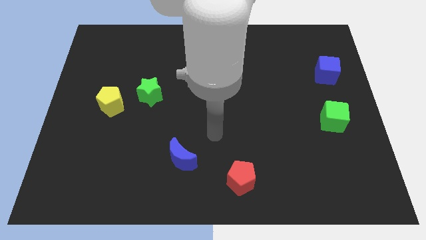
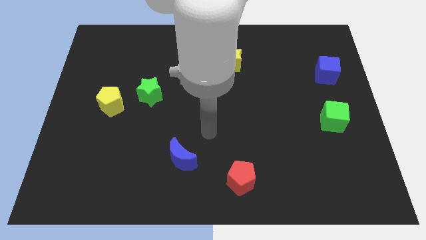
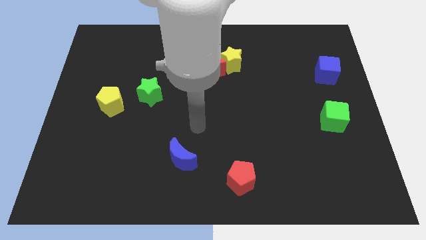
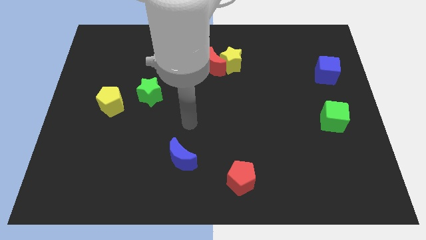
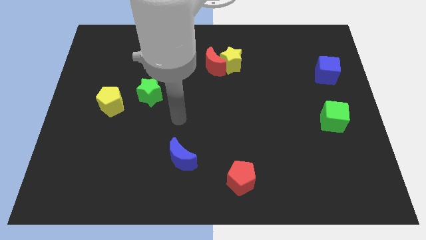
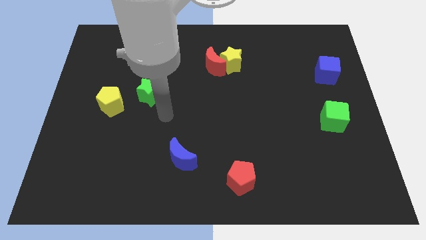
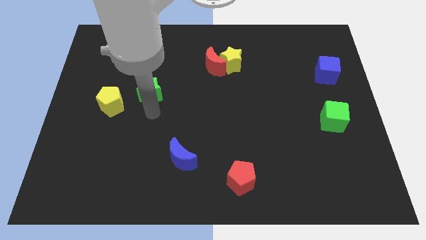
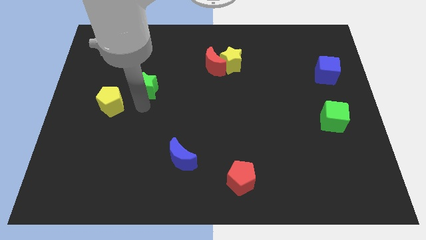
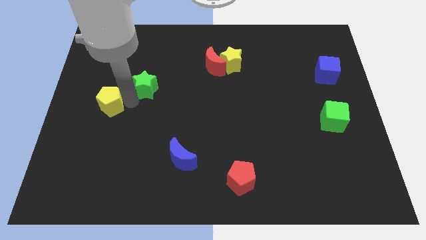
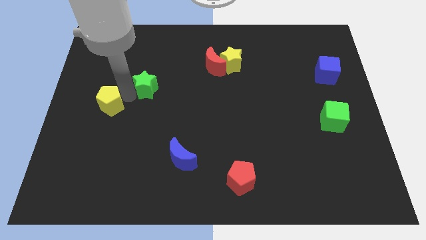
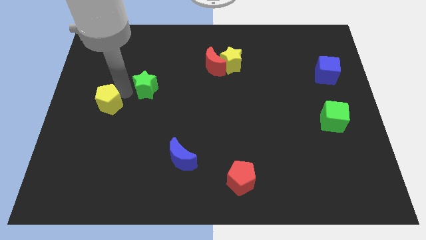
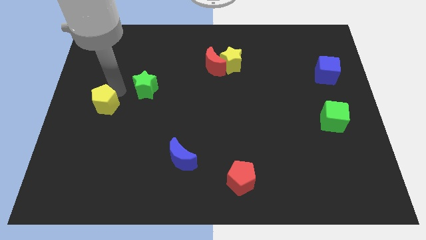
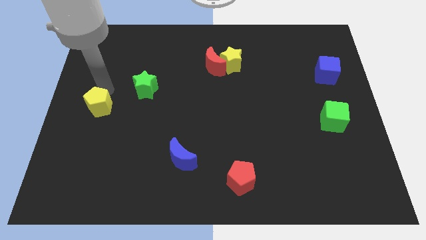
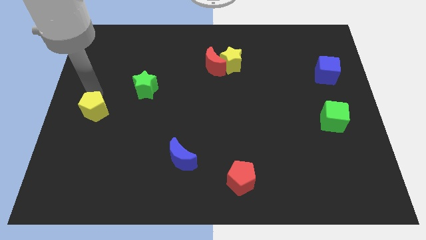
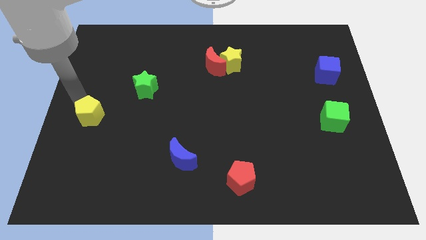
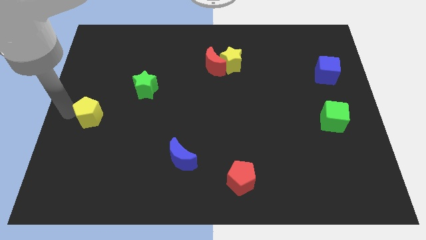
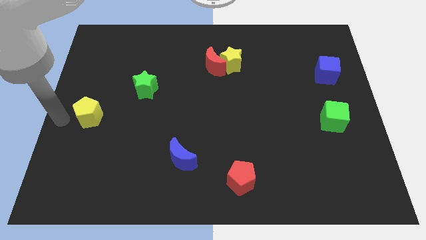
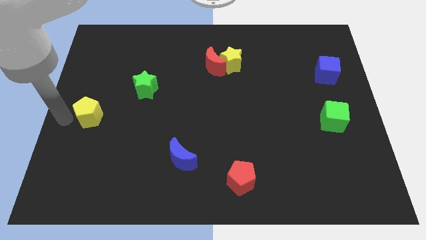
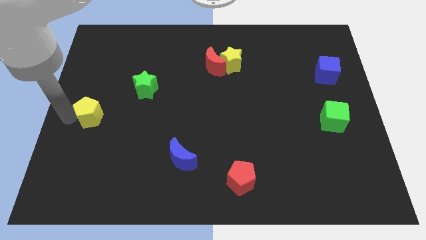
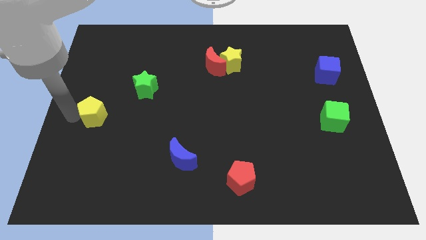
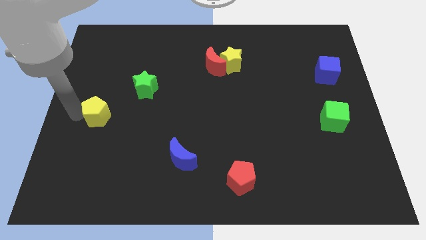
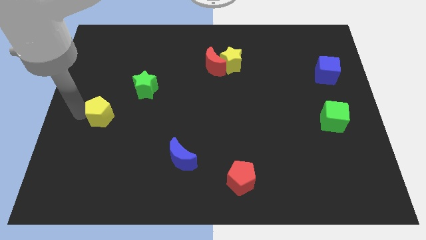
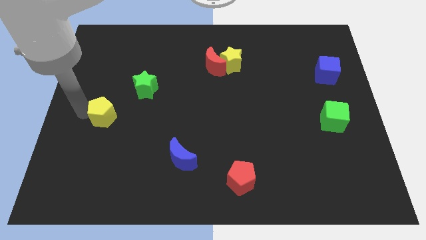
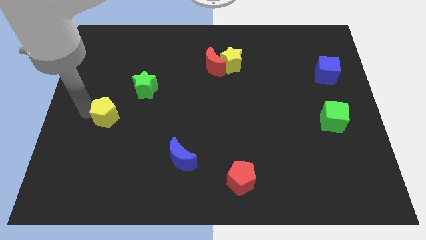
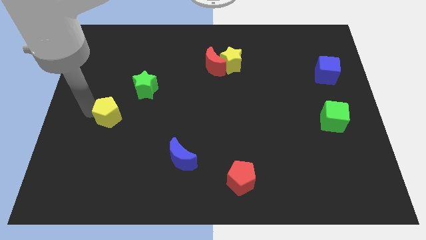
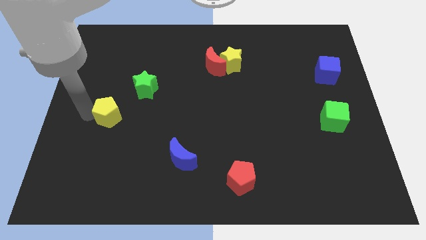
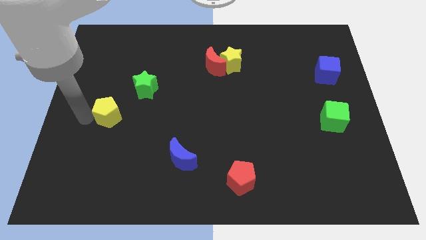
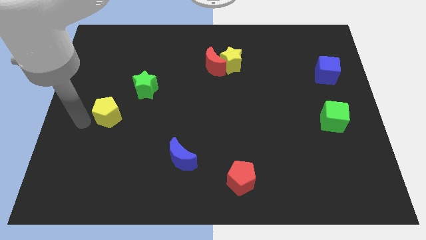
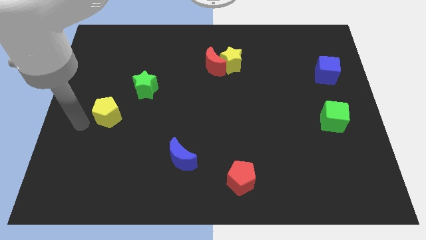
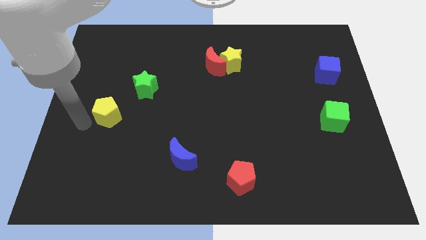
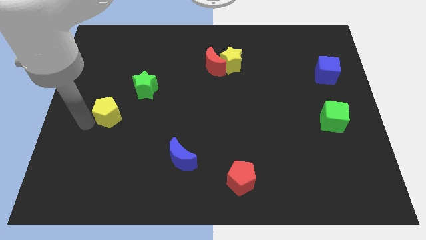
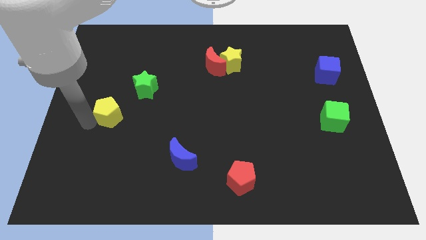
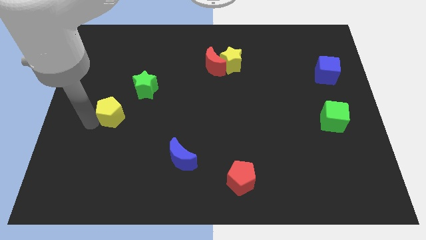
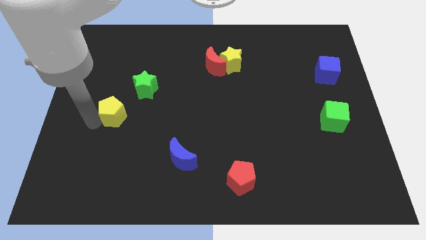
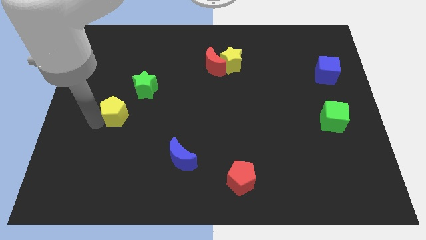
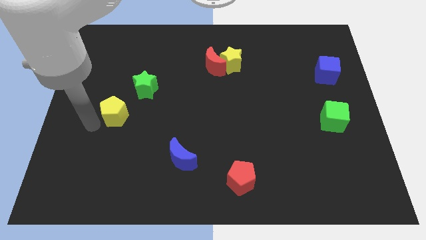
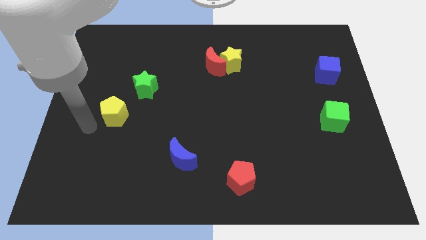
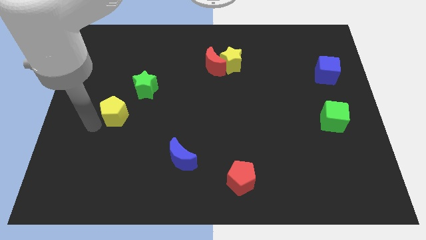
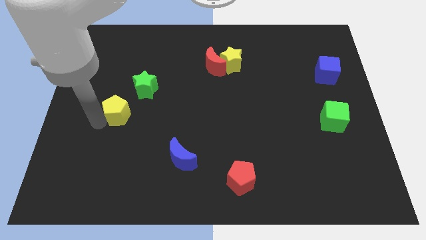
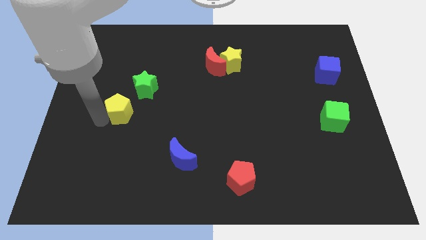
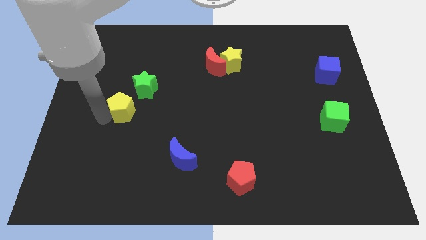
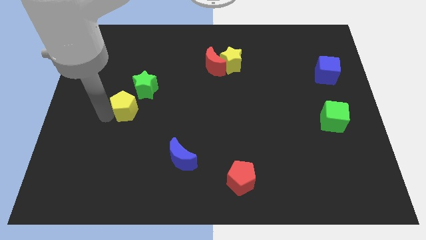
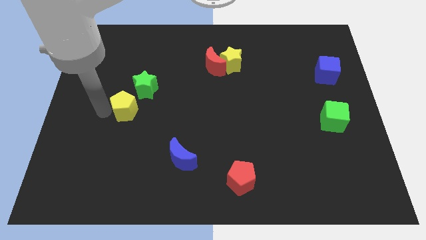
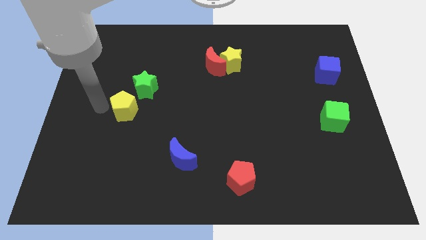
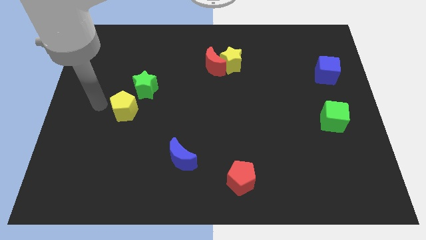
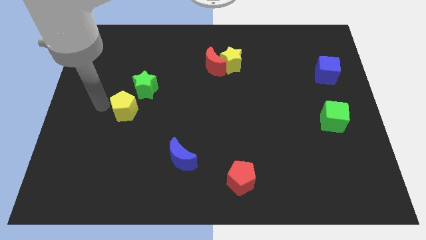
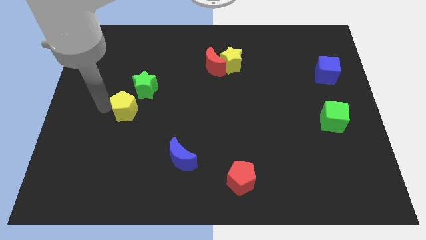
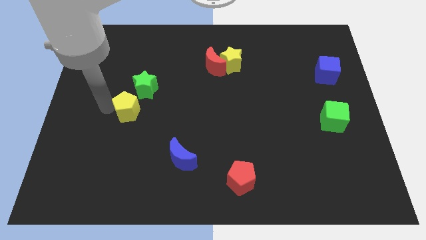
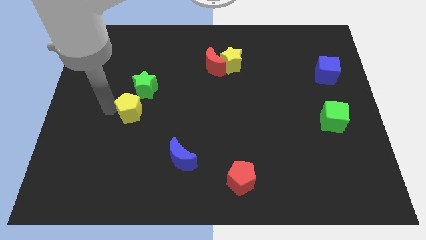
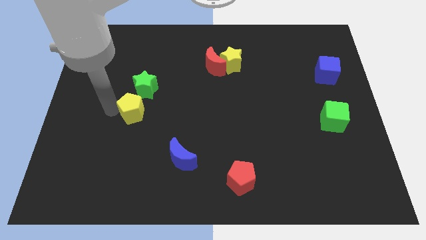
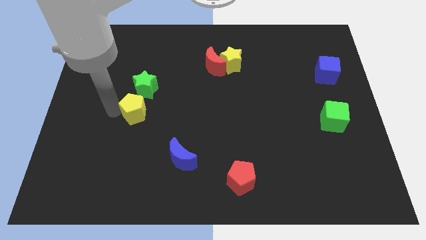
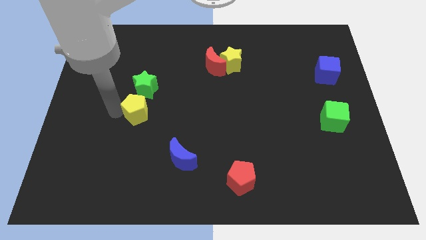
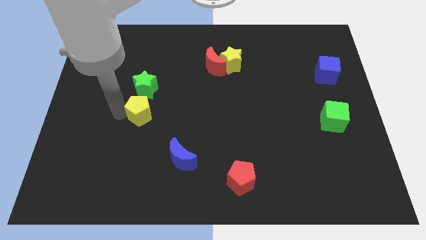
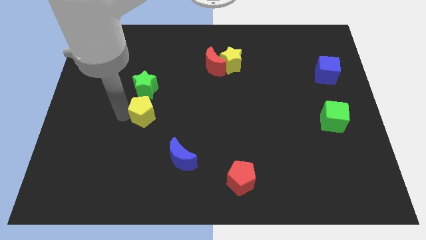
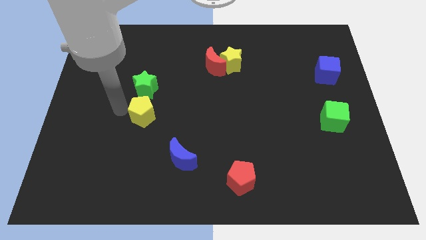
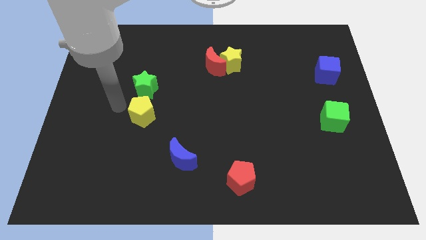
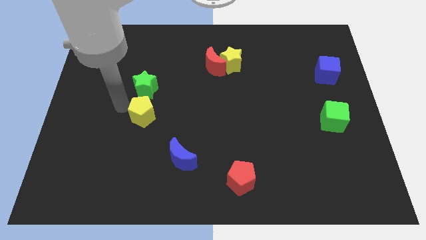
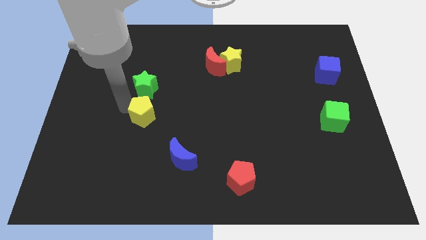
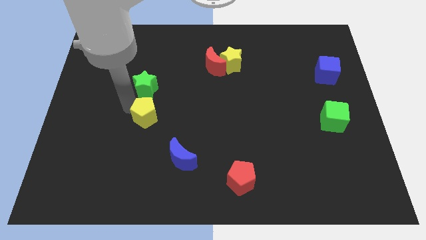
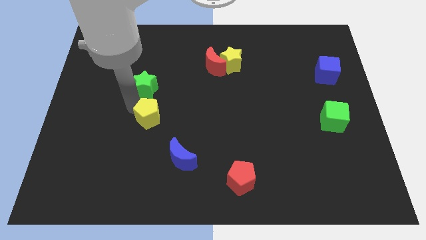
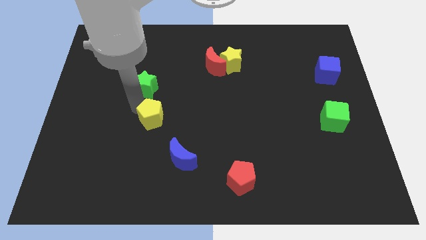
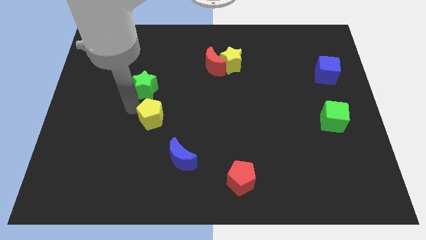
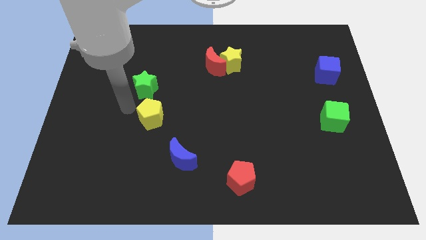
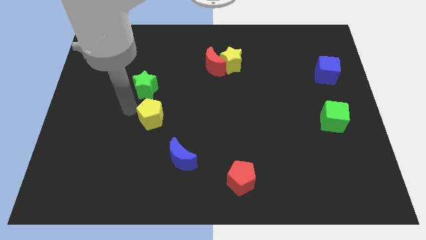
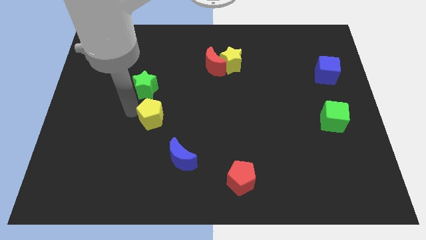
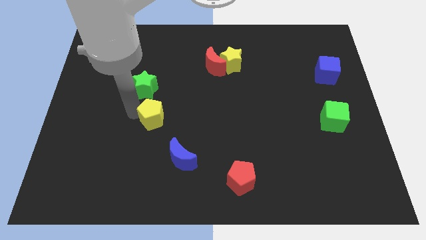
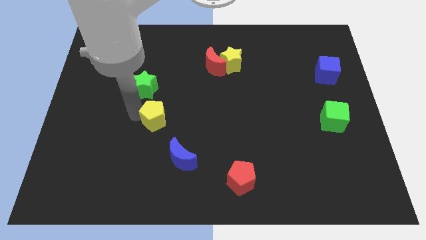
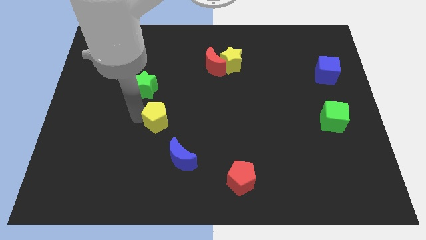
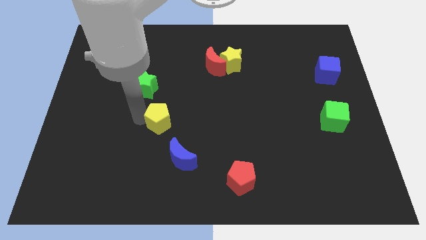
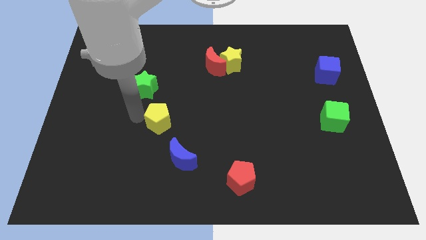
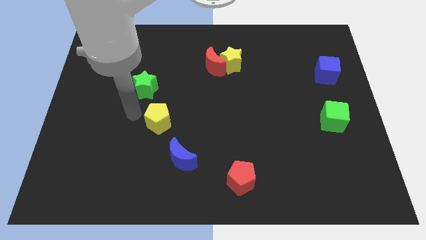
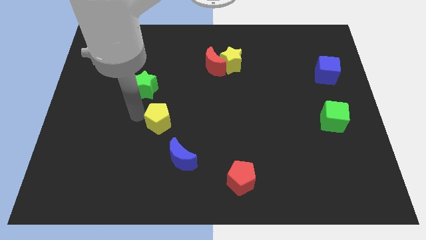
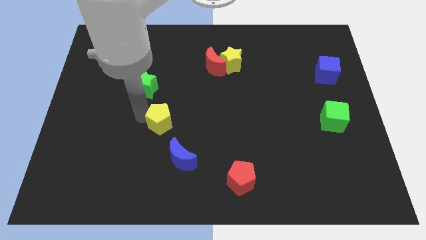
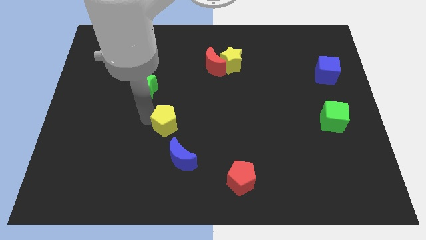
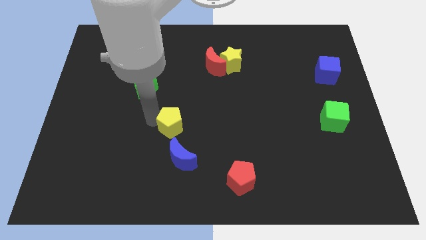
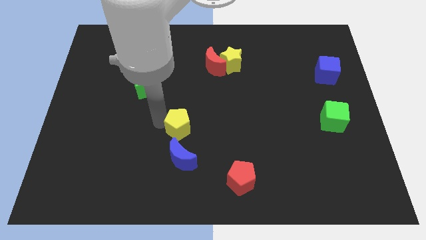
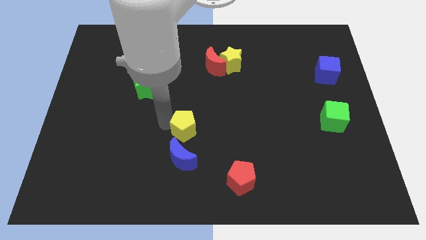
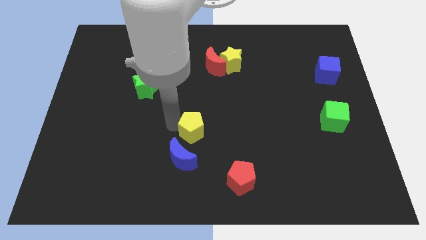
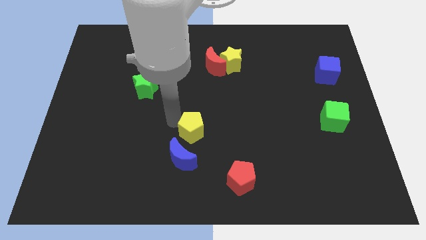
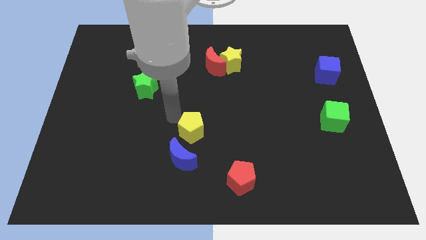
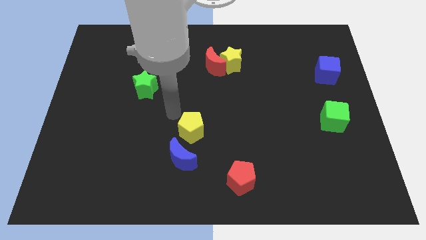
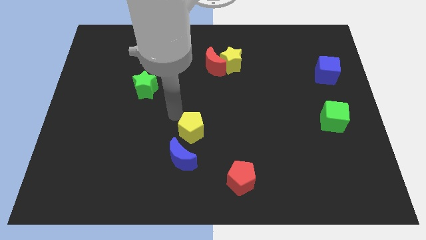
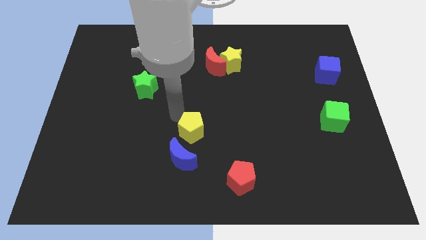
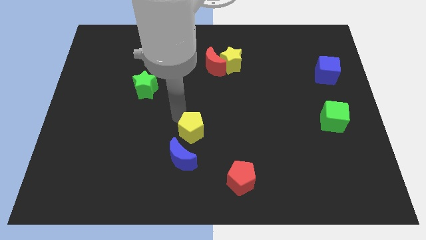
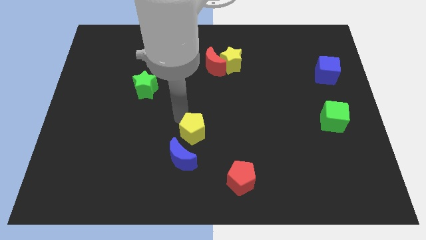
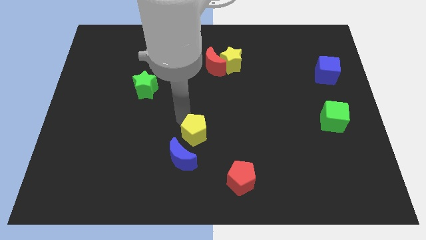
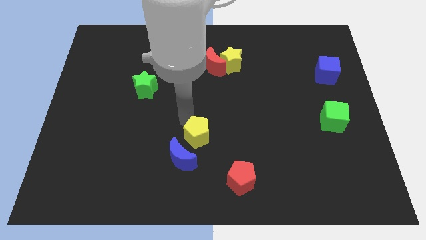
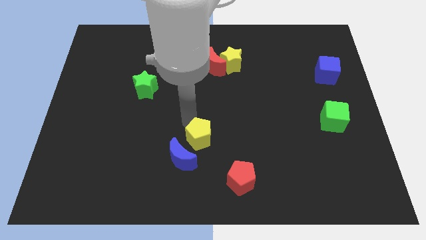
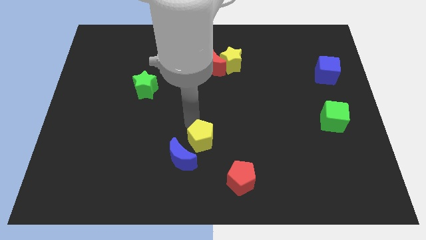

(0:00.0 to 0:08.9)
move the yellow pentagon diagonally up and to the left of the red pentagon
